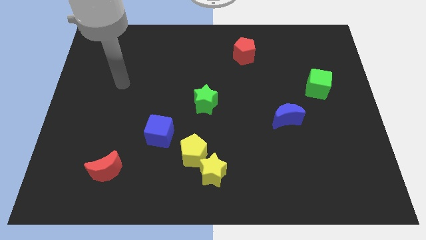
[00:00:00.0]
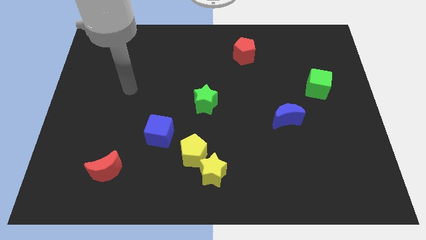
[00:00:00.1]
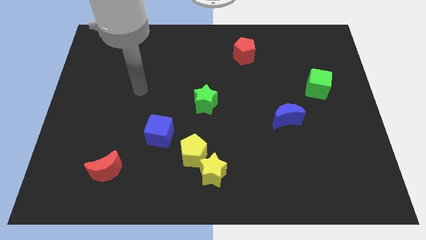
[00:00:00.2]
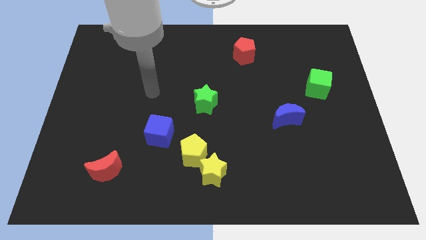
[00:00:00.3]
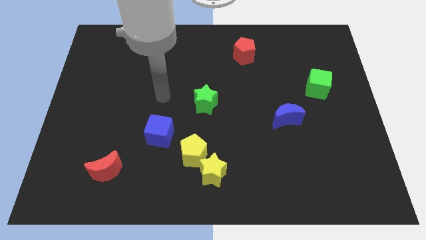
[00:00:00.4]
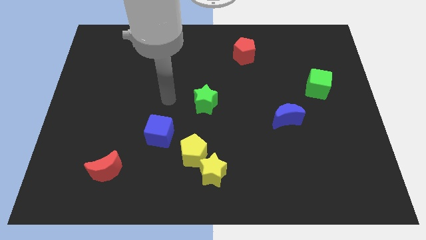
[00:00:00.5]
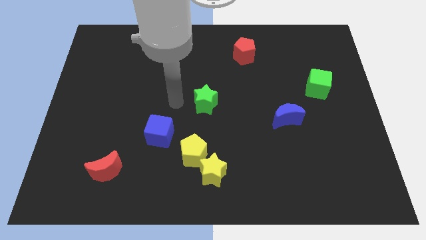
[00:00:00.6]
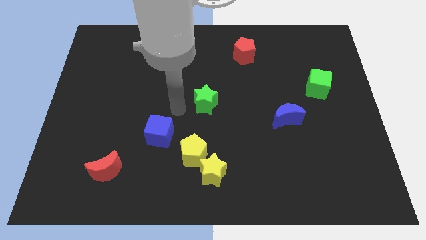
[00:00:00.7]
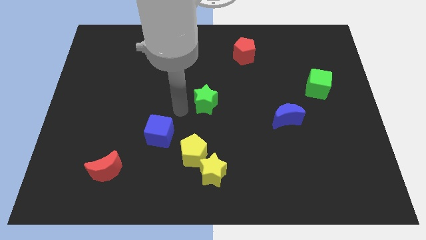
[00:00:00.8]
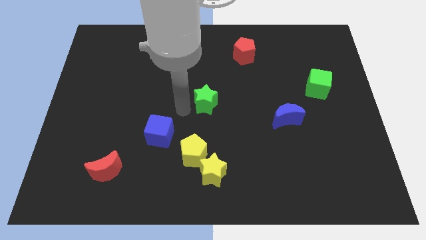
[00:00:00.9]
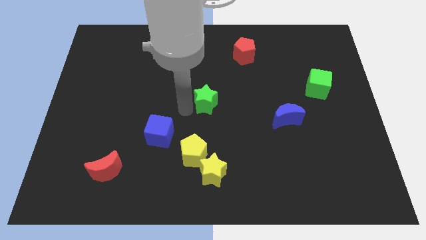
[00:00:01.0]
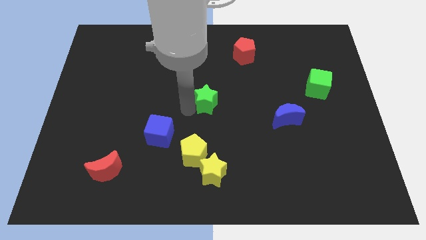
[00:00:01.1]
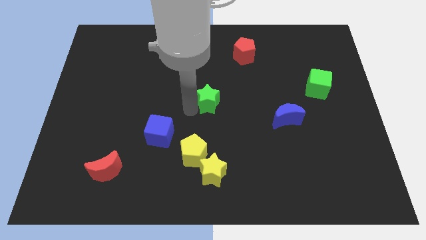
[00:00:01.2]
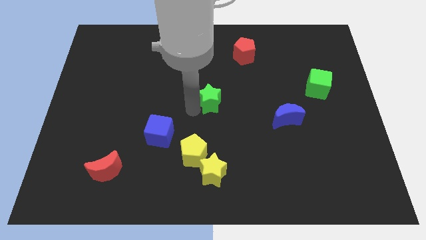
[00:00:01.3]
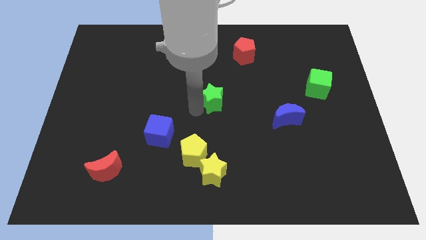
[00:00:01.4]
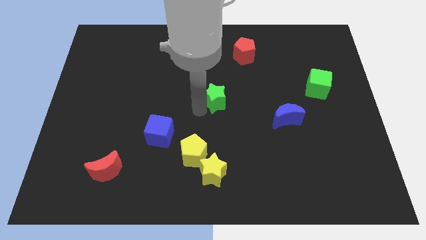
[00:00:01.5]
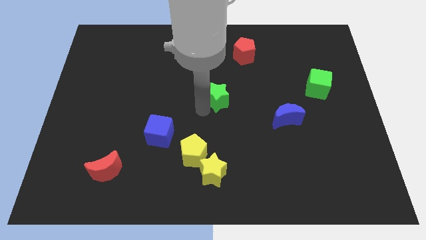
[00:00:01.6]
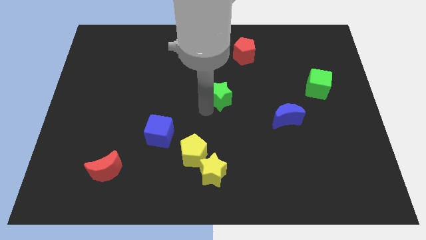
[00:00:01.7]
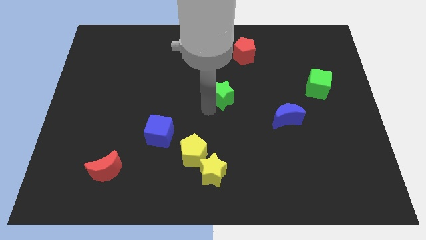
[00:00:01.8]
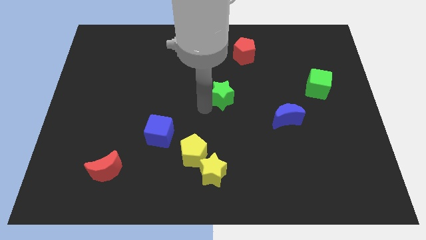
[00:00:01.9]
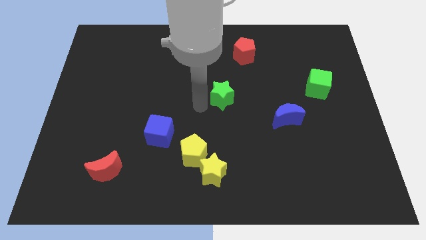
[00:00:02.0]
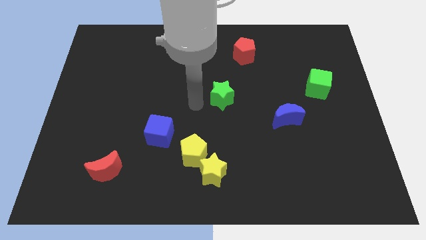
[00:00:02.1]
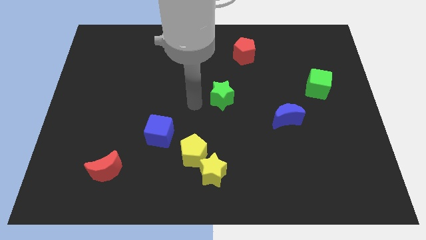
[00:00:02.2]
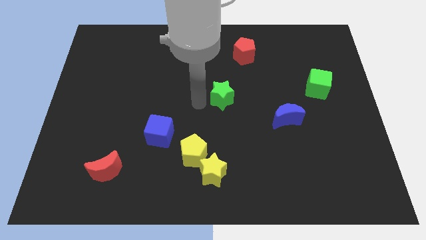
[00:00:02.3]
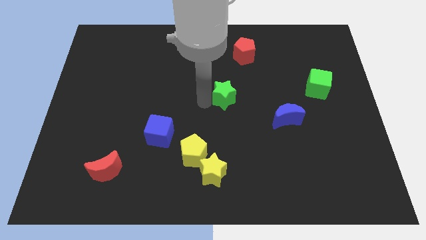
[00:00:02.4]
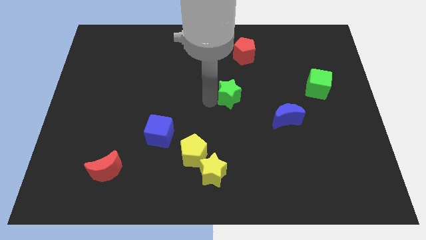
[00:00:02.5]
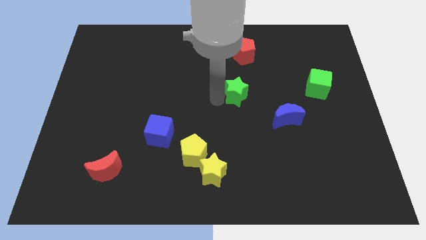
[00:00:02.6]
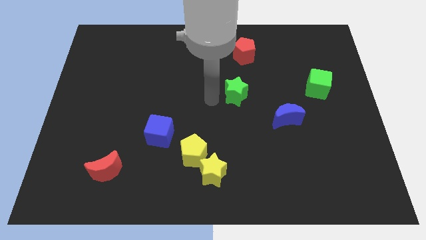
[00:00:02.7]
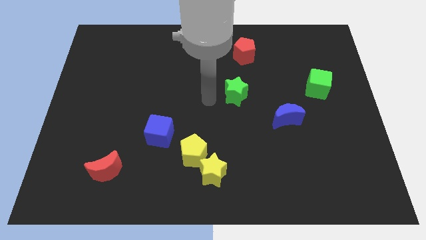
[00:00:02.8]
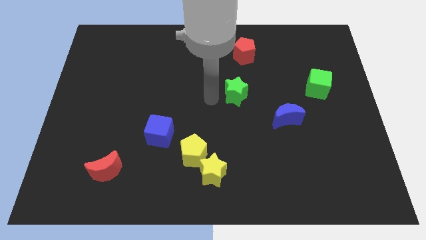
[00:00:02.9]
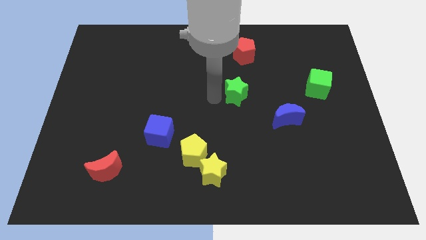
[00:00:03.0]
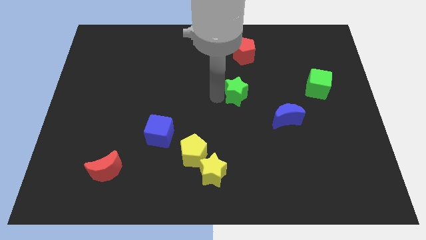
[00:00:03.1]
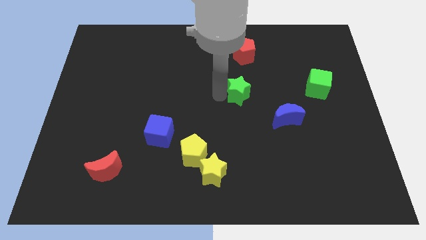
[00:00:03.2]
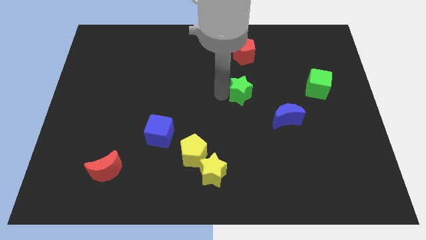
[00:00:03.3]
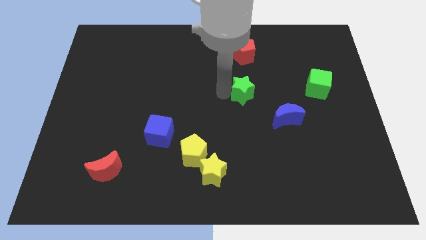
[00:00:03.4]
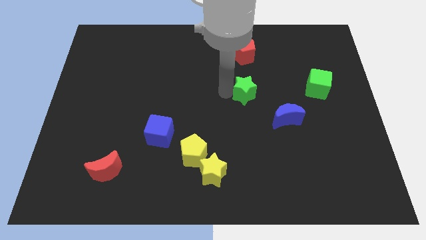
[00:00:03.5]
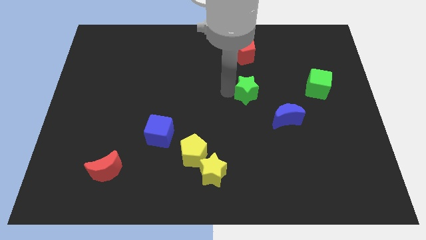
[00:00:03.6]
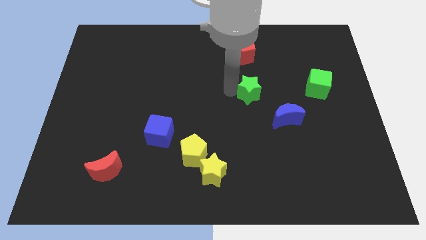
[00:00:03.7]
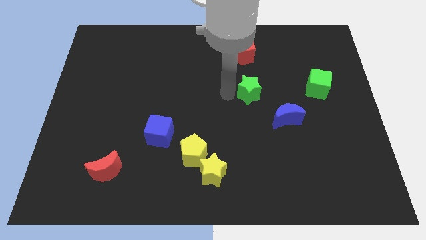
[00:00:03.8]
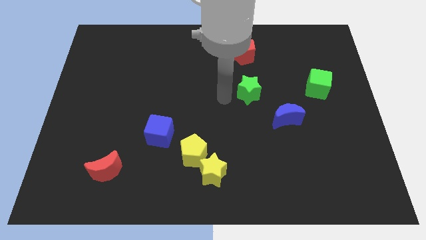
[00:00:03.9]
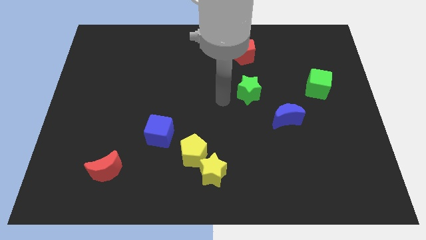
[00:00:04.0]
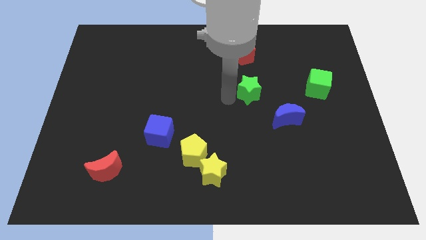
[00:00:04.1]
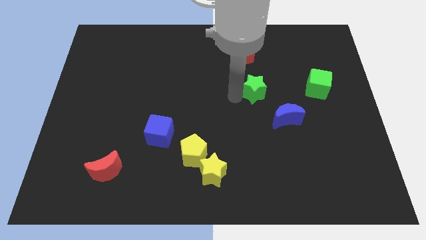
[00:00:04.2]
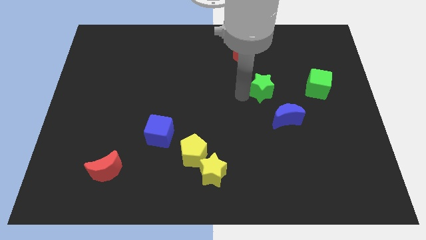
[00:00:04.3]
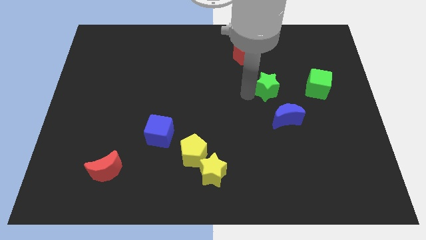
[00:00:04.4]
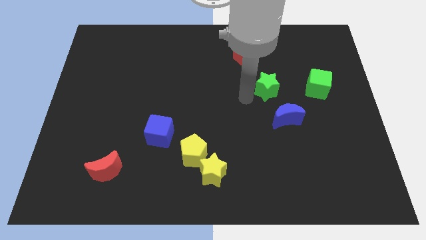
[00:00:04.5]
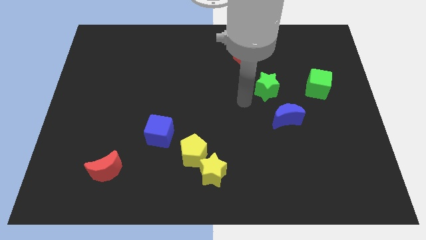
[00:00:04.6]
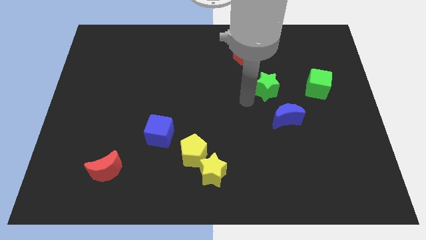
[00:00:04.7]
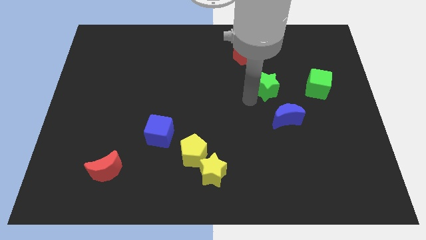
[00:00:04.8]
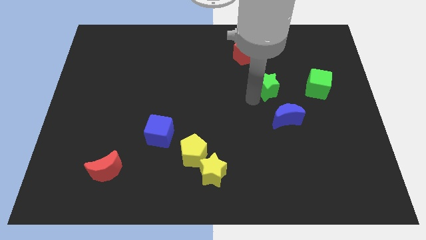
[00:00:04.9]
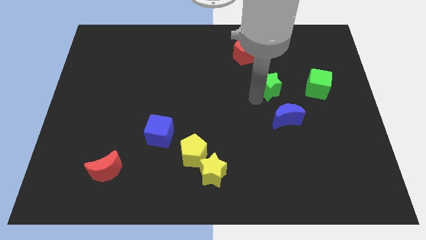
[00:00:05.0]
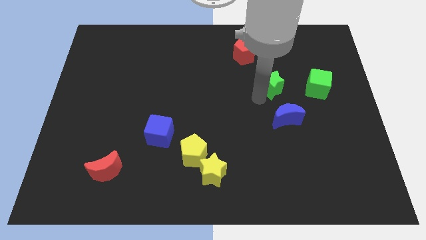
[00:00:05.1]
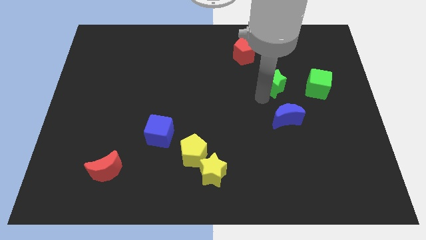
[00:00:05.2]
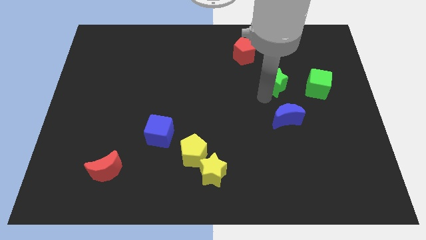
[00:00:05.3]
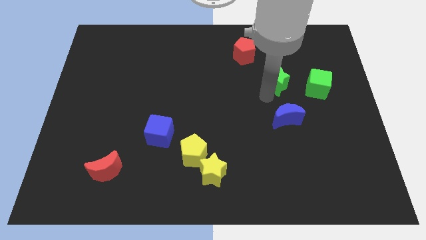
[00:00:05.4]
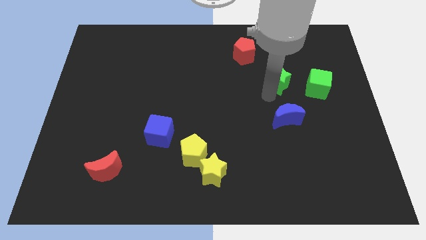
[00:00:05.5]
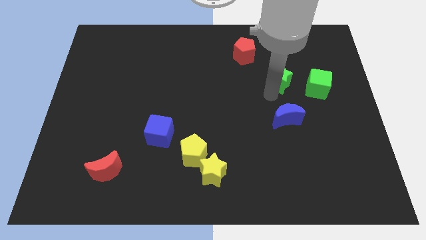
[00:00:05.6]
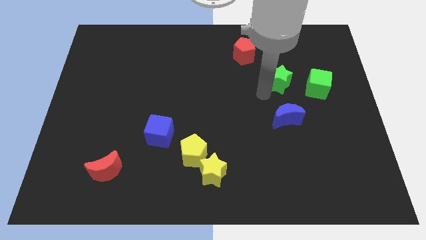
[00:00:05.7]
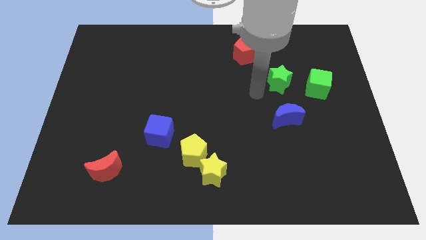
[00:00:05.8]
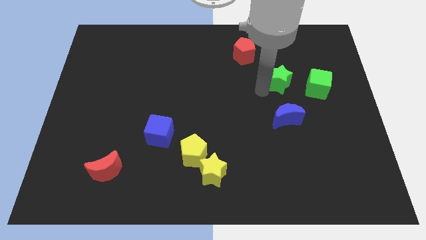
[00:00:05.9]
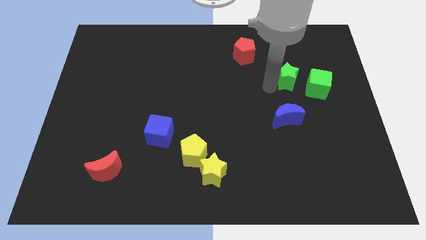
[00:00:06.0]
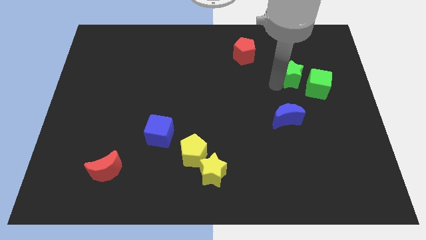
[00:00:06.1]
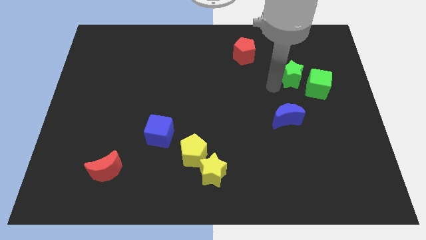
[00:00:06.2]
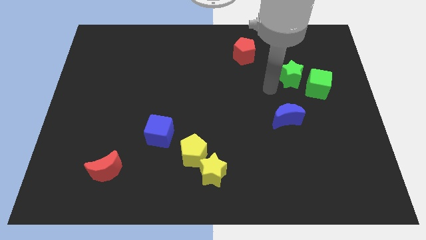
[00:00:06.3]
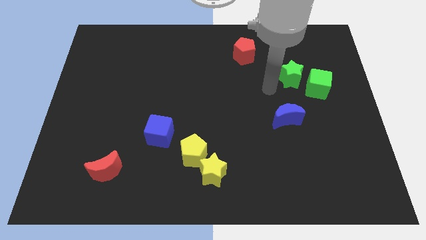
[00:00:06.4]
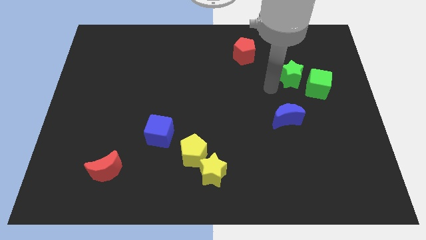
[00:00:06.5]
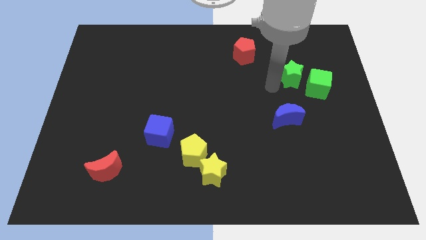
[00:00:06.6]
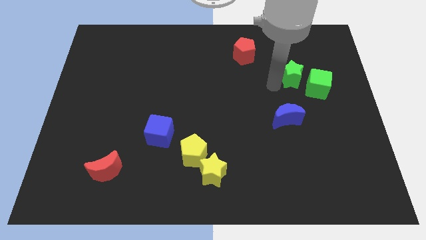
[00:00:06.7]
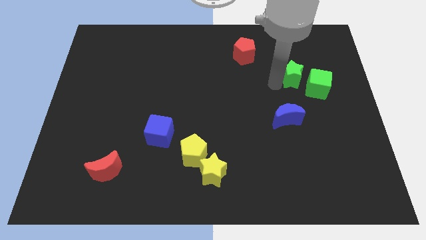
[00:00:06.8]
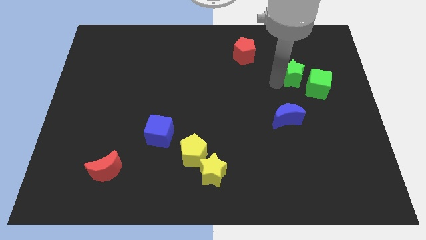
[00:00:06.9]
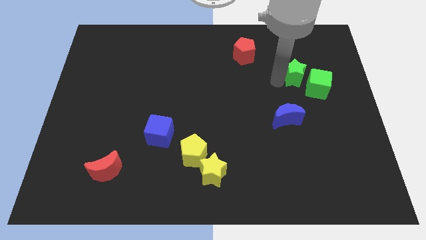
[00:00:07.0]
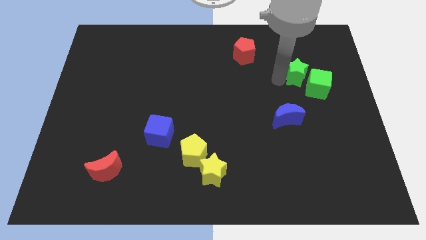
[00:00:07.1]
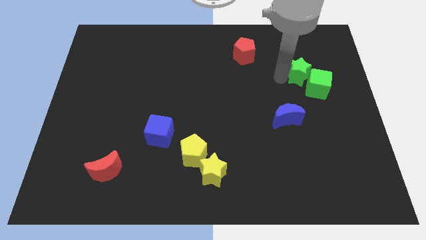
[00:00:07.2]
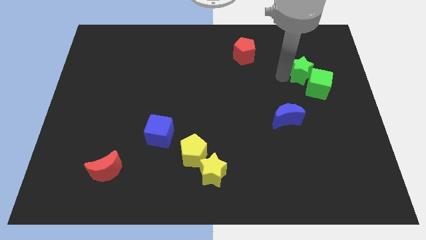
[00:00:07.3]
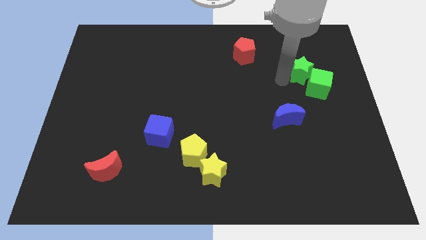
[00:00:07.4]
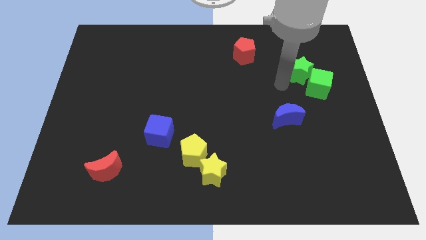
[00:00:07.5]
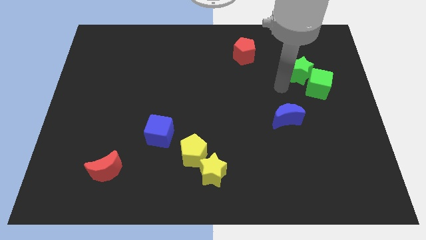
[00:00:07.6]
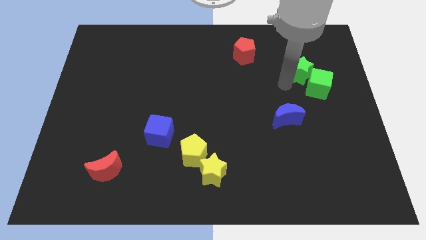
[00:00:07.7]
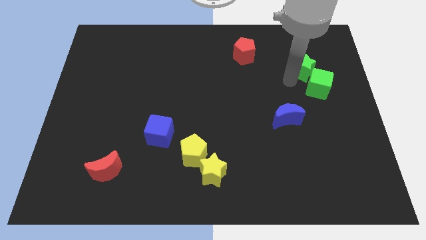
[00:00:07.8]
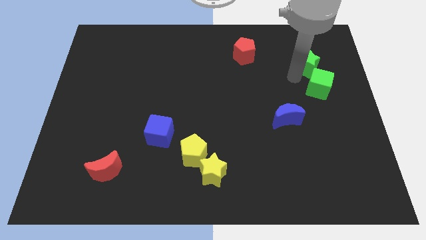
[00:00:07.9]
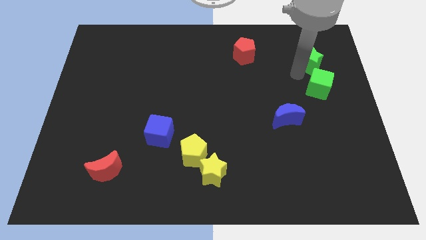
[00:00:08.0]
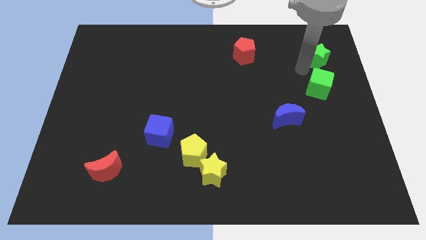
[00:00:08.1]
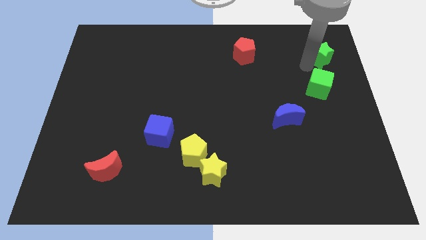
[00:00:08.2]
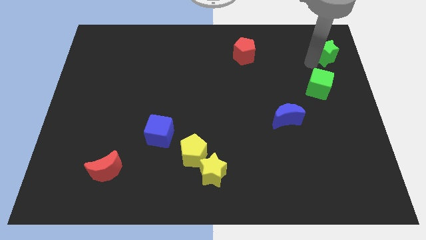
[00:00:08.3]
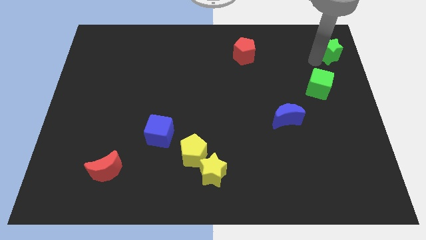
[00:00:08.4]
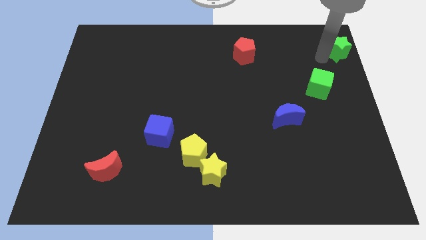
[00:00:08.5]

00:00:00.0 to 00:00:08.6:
slide the green star to the upper right corner
